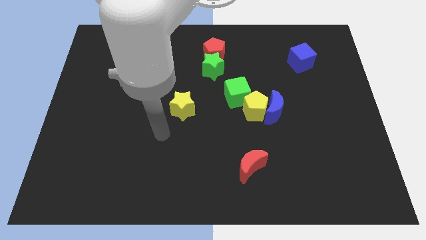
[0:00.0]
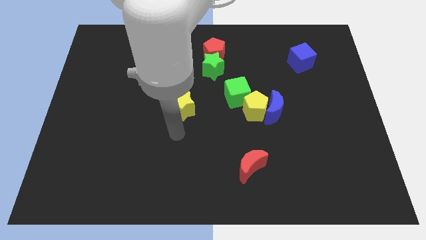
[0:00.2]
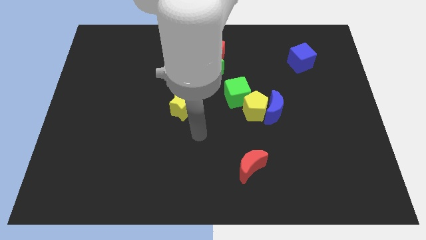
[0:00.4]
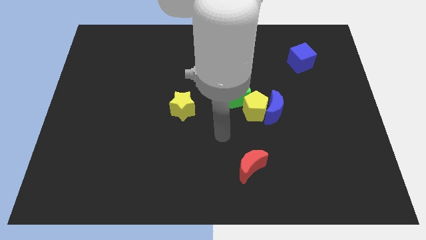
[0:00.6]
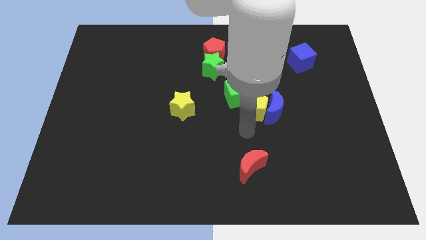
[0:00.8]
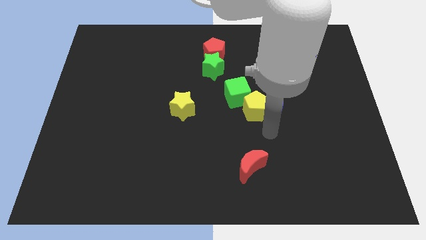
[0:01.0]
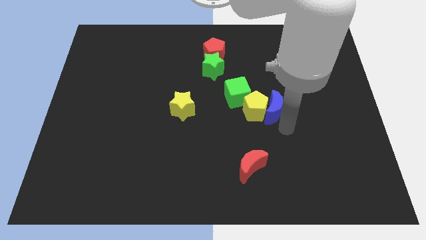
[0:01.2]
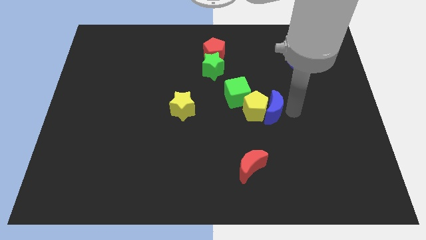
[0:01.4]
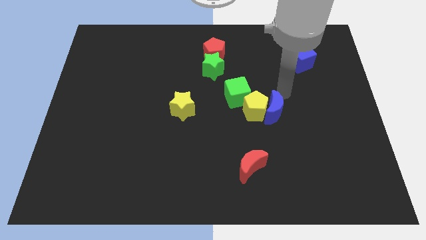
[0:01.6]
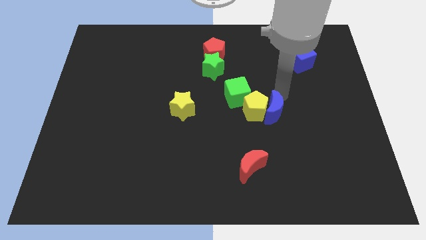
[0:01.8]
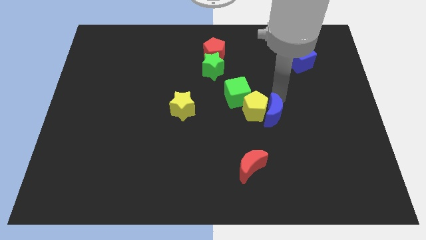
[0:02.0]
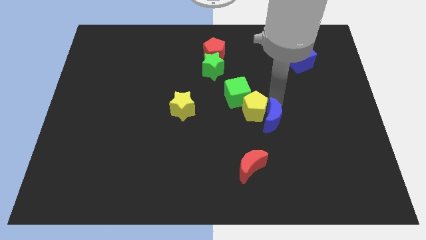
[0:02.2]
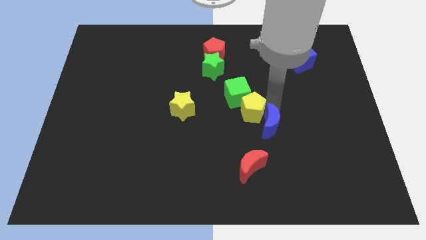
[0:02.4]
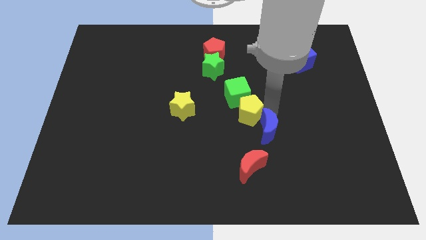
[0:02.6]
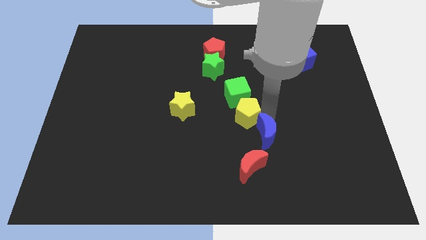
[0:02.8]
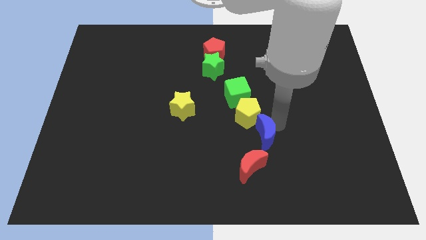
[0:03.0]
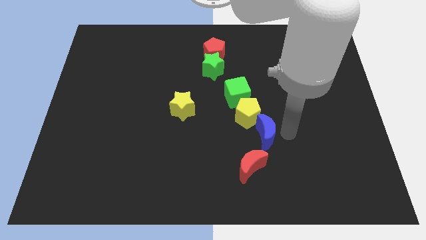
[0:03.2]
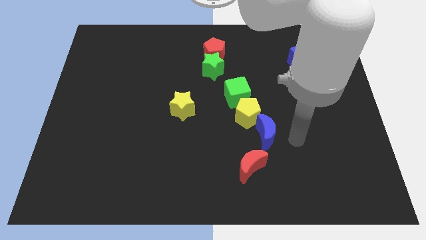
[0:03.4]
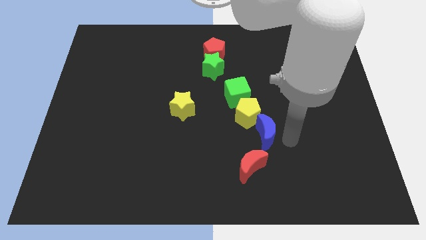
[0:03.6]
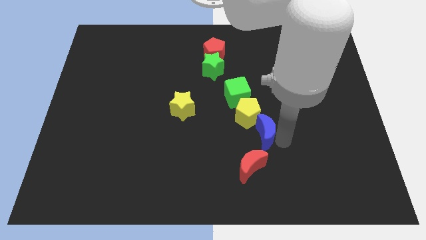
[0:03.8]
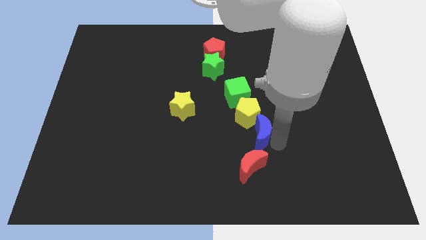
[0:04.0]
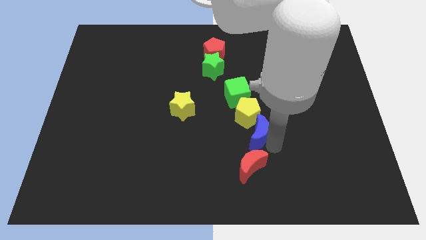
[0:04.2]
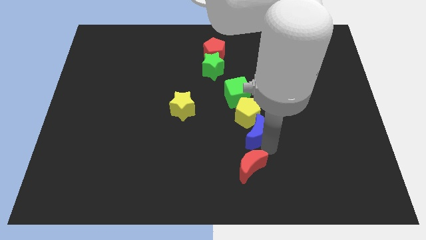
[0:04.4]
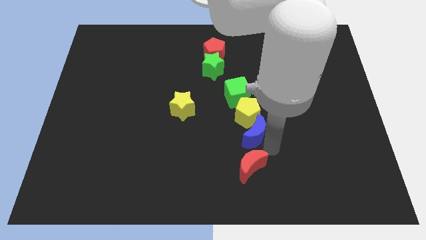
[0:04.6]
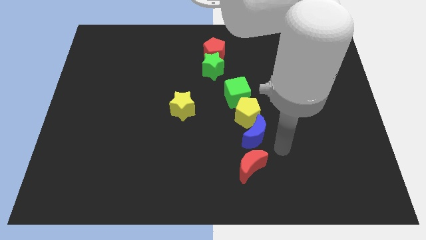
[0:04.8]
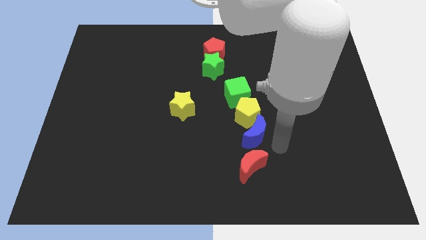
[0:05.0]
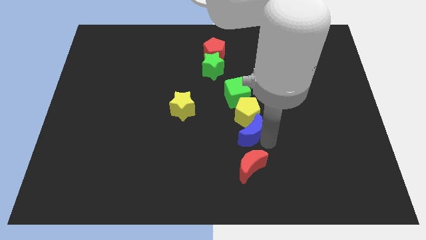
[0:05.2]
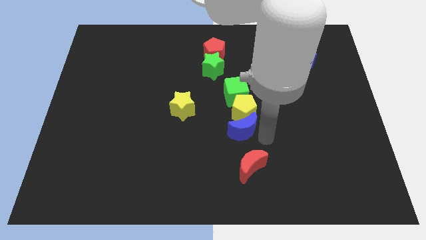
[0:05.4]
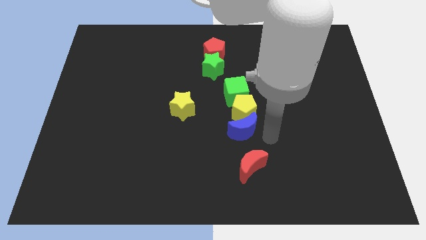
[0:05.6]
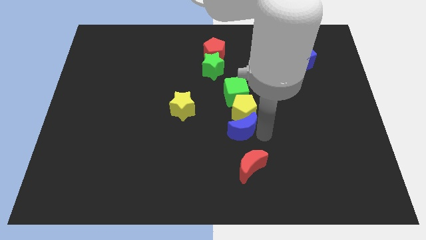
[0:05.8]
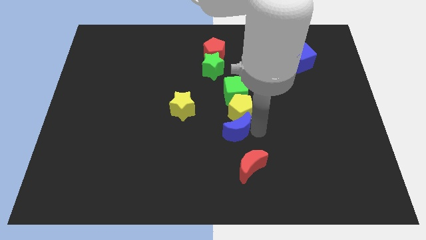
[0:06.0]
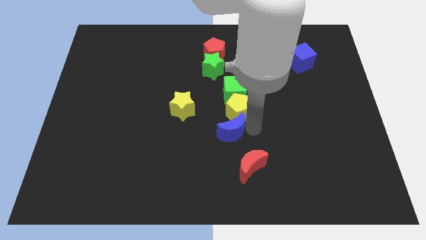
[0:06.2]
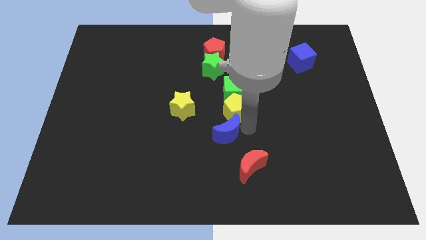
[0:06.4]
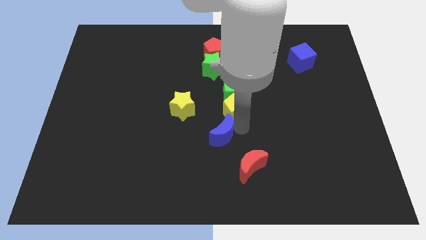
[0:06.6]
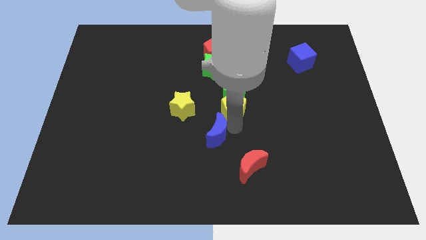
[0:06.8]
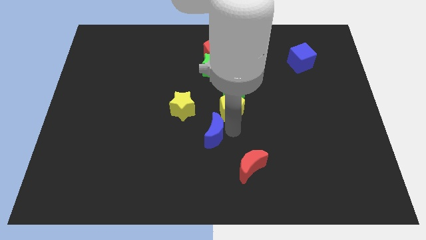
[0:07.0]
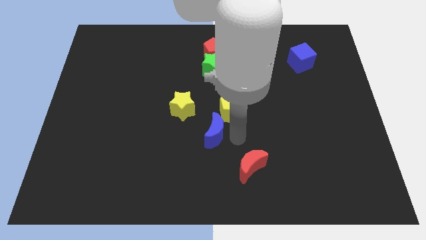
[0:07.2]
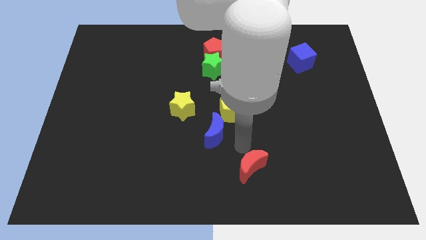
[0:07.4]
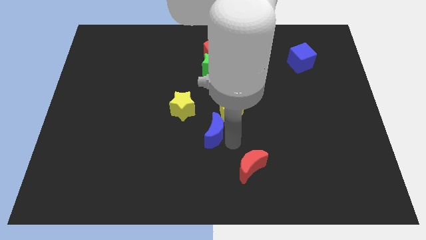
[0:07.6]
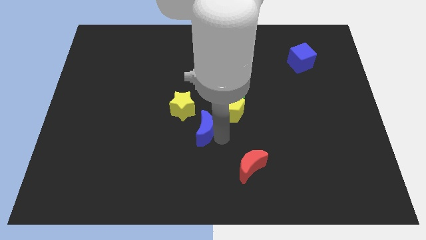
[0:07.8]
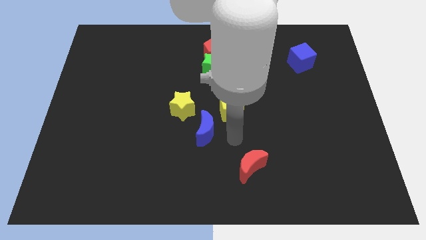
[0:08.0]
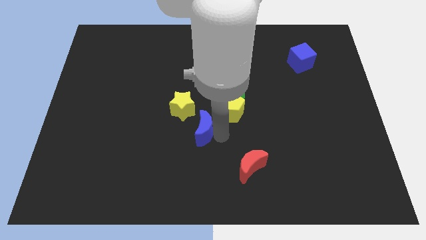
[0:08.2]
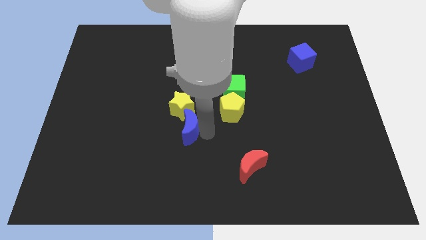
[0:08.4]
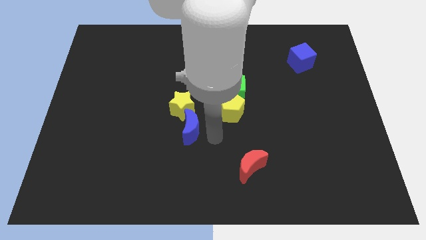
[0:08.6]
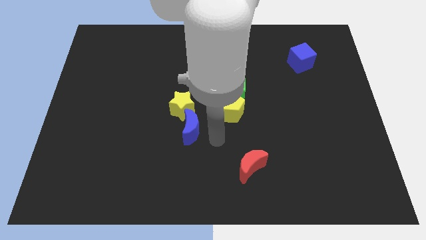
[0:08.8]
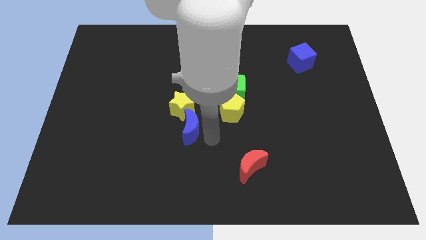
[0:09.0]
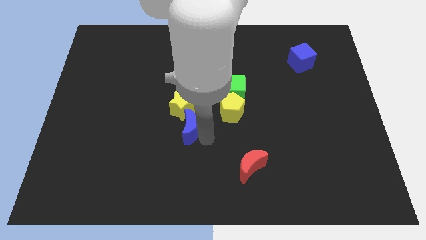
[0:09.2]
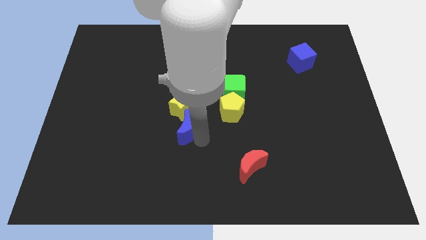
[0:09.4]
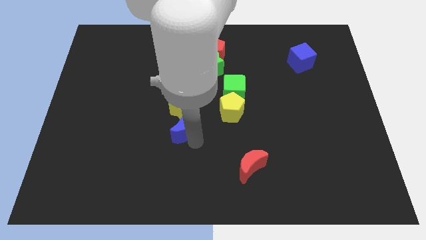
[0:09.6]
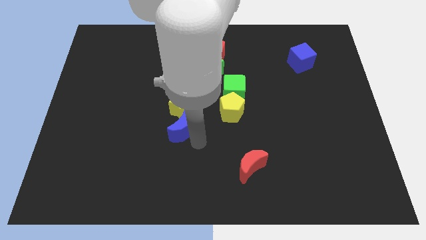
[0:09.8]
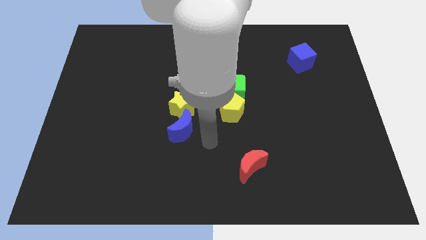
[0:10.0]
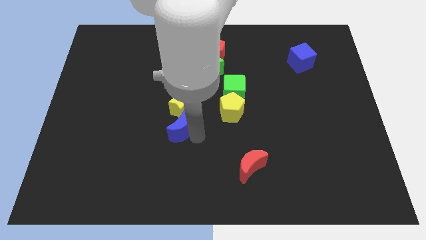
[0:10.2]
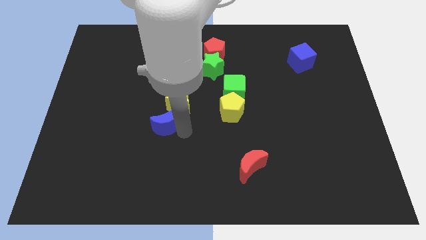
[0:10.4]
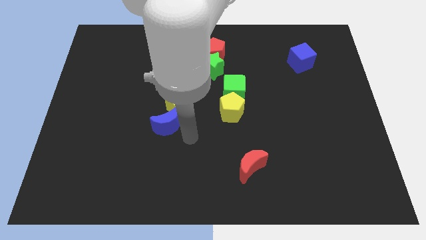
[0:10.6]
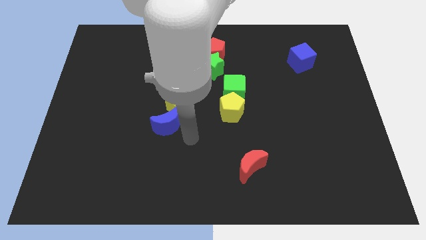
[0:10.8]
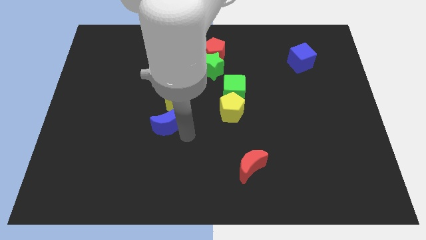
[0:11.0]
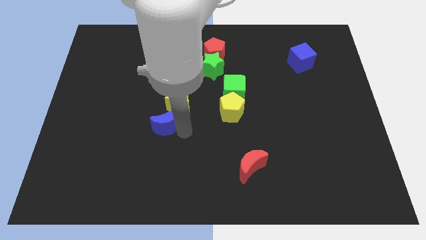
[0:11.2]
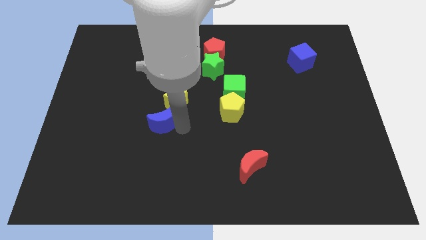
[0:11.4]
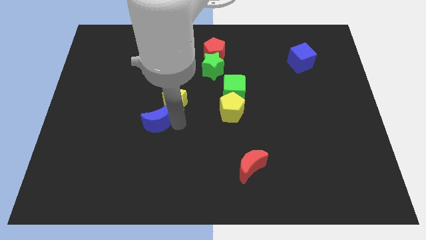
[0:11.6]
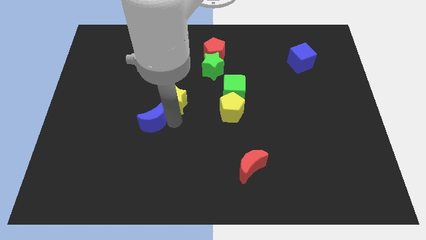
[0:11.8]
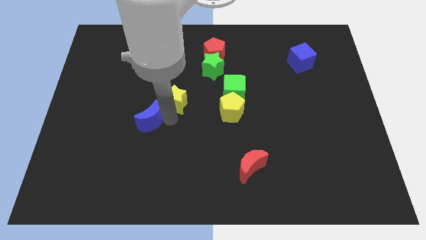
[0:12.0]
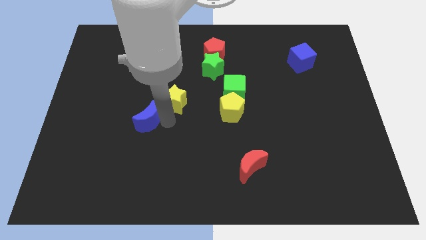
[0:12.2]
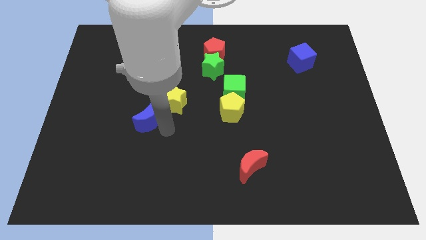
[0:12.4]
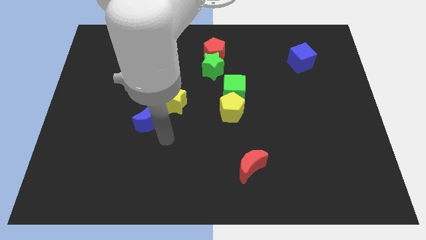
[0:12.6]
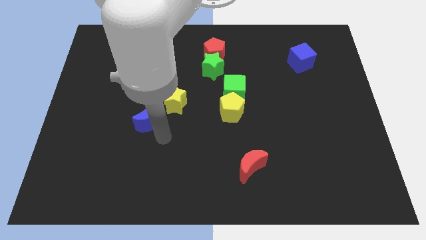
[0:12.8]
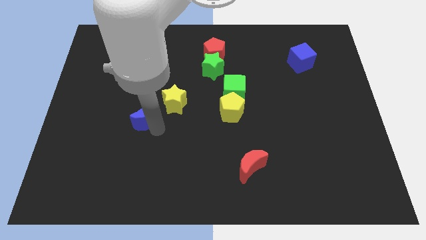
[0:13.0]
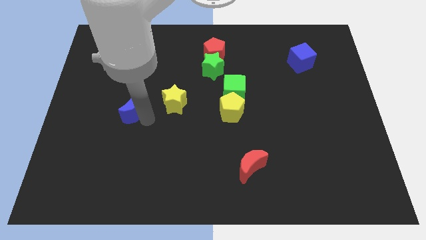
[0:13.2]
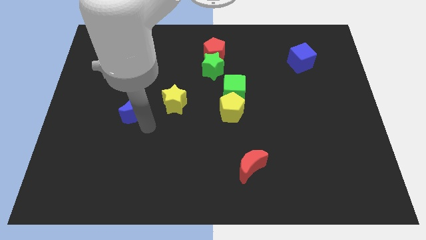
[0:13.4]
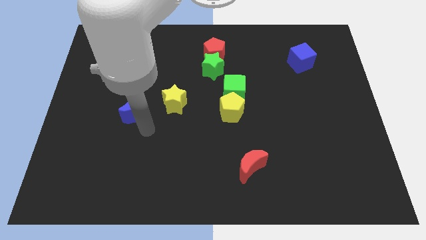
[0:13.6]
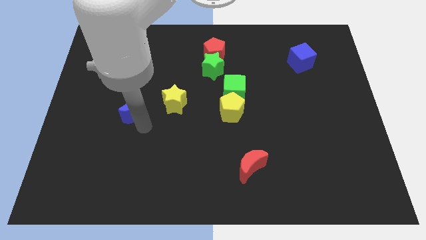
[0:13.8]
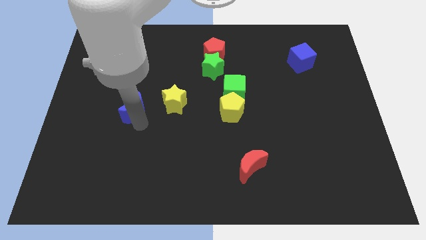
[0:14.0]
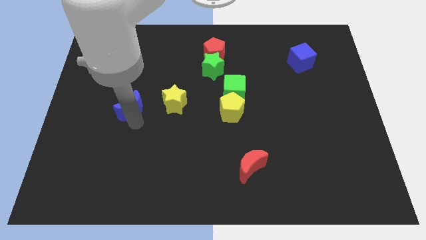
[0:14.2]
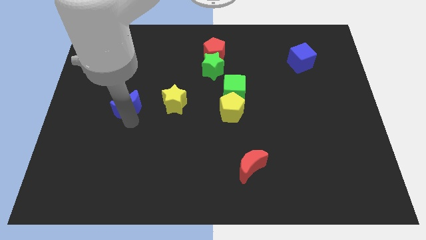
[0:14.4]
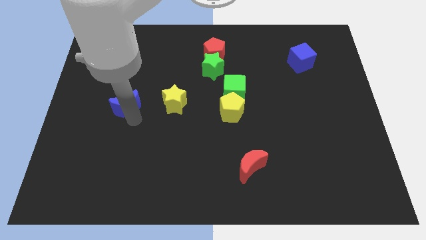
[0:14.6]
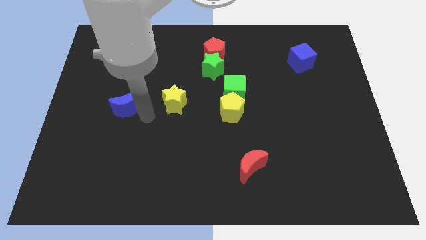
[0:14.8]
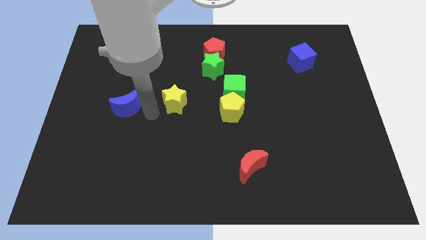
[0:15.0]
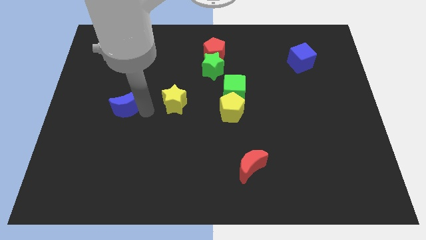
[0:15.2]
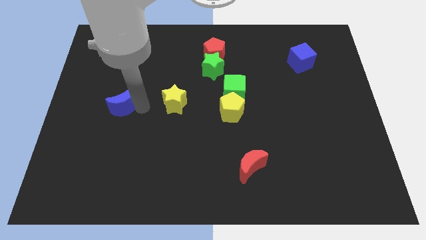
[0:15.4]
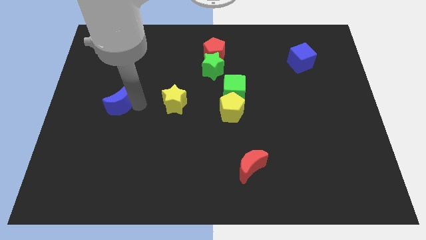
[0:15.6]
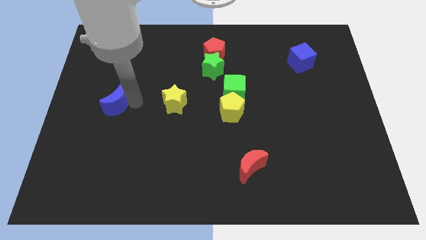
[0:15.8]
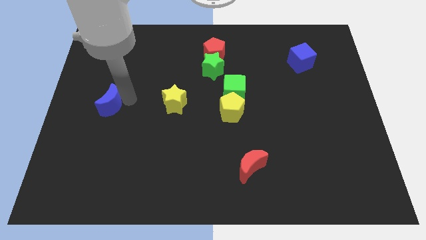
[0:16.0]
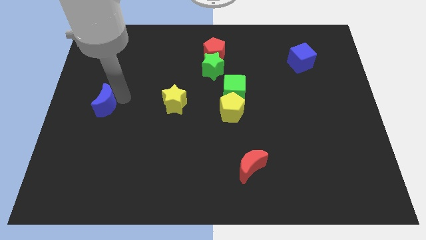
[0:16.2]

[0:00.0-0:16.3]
put the blue moon to the center left
